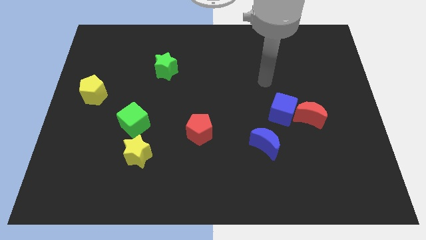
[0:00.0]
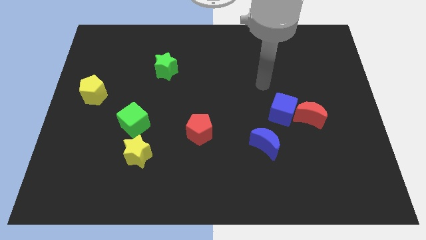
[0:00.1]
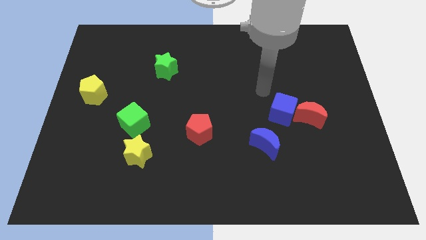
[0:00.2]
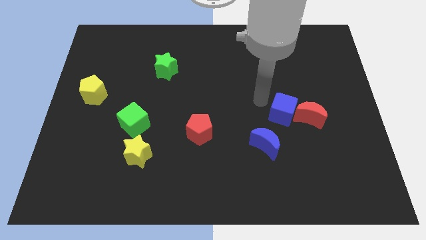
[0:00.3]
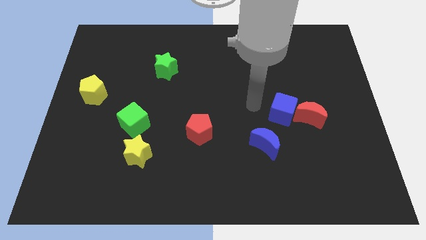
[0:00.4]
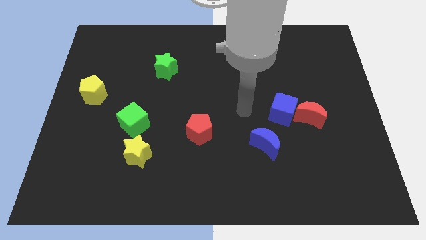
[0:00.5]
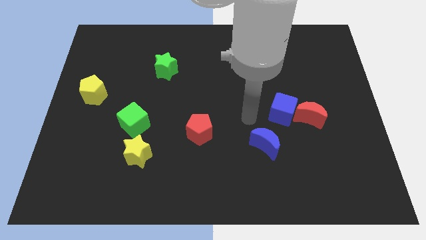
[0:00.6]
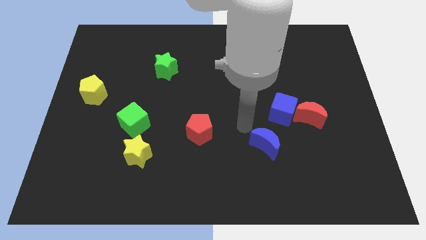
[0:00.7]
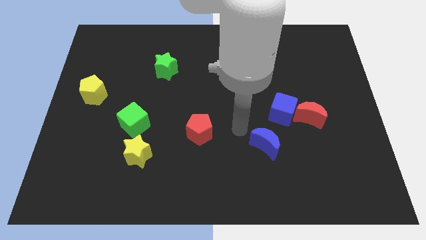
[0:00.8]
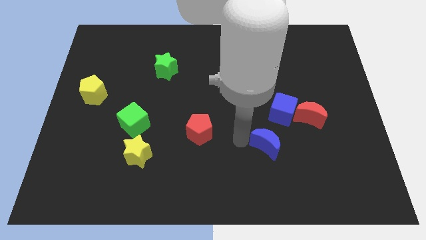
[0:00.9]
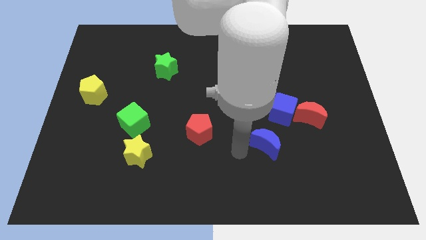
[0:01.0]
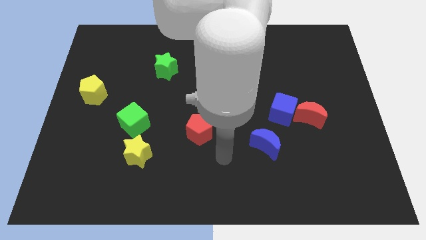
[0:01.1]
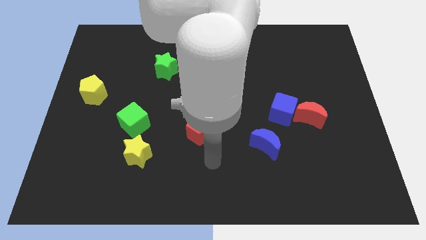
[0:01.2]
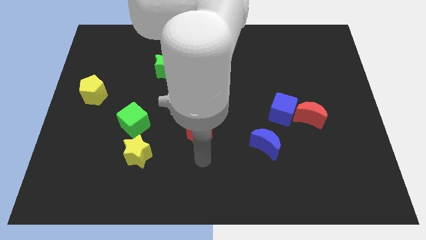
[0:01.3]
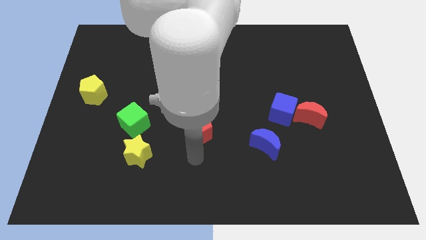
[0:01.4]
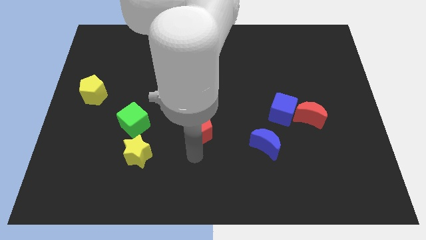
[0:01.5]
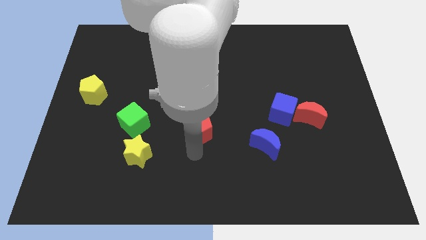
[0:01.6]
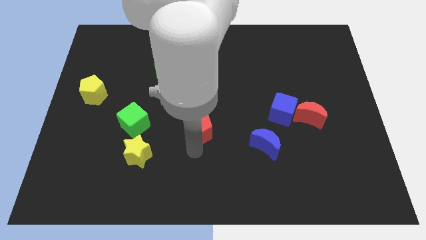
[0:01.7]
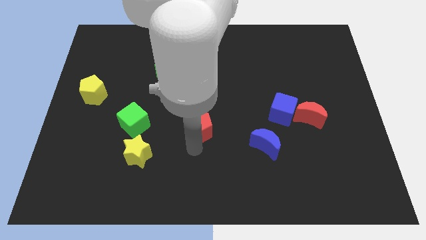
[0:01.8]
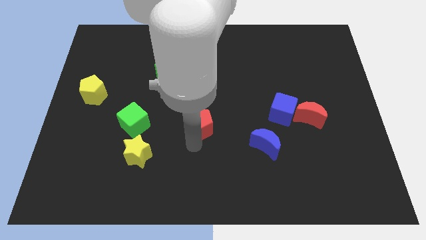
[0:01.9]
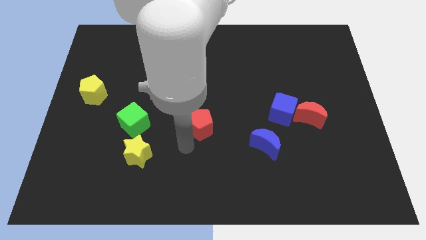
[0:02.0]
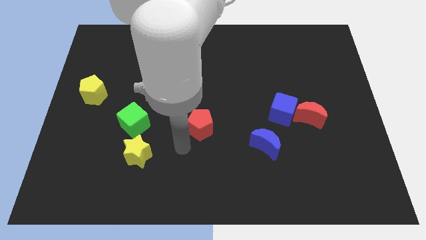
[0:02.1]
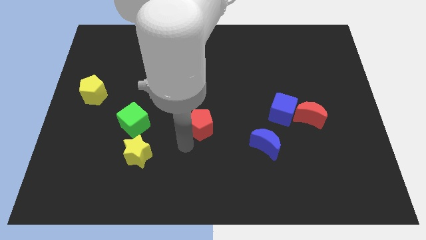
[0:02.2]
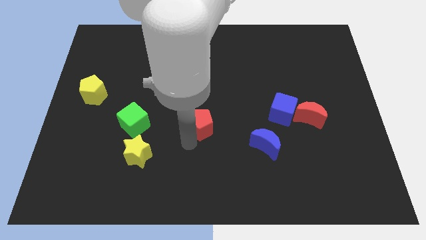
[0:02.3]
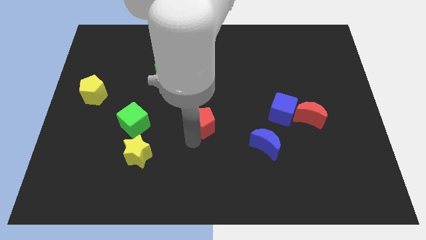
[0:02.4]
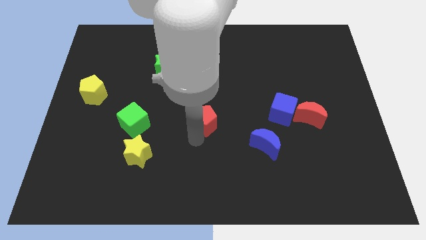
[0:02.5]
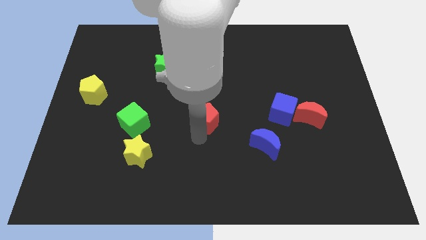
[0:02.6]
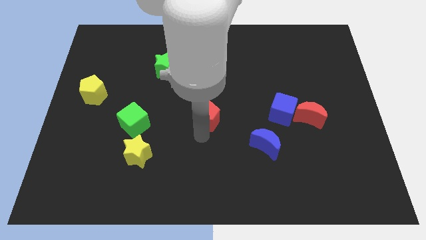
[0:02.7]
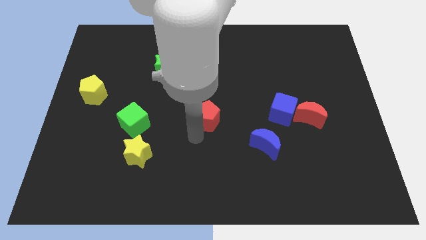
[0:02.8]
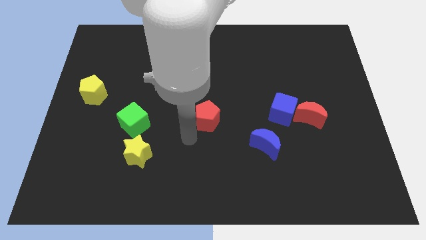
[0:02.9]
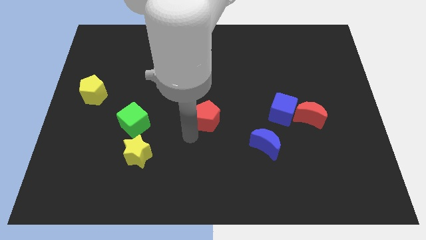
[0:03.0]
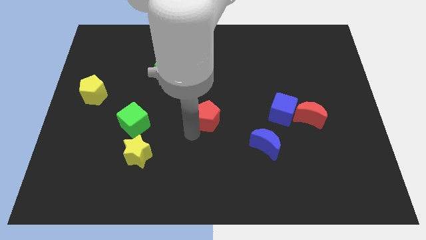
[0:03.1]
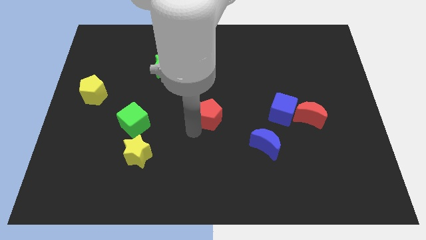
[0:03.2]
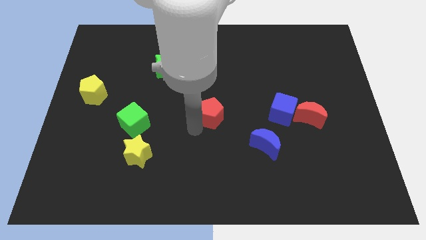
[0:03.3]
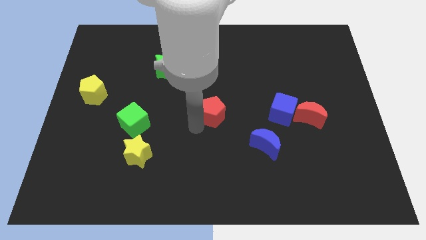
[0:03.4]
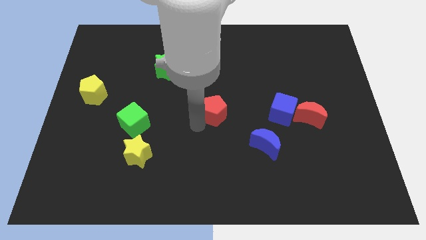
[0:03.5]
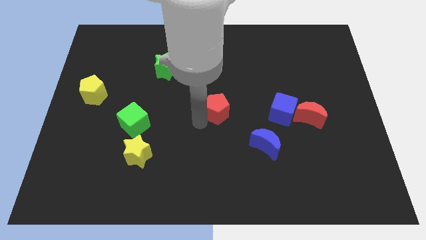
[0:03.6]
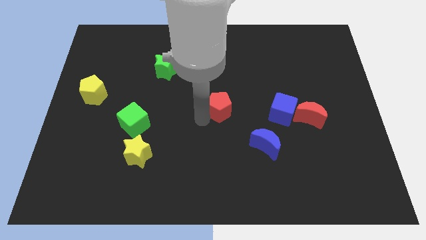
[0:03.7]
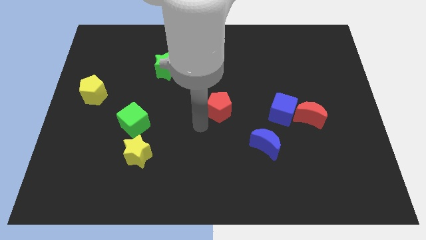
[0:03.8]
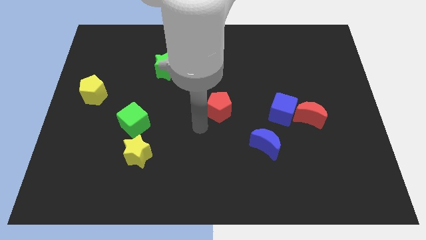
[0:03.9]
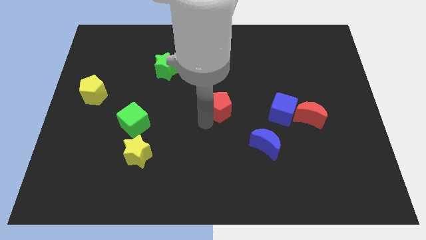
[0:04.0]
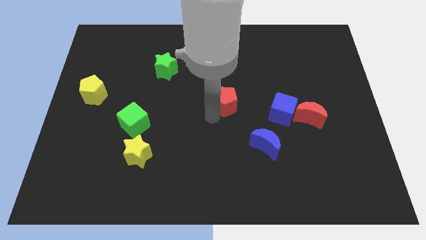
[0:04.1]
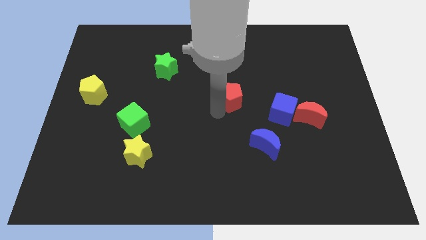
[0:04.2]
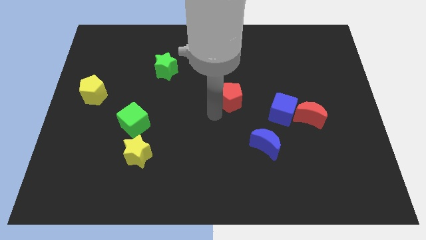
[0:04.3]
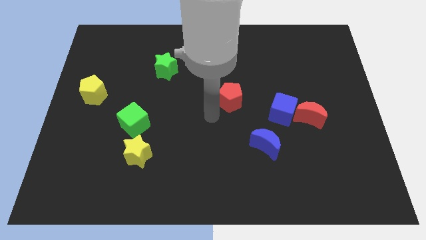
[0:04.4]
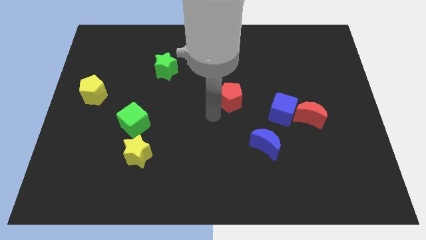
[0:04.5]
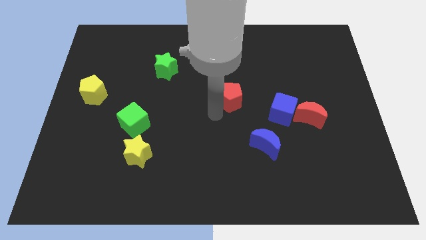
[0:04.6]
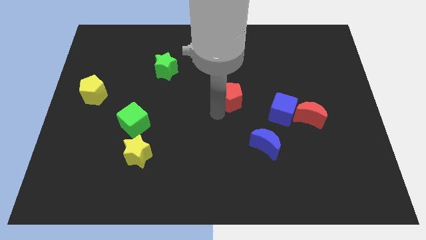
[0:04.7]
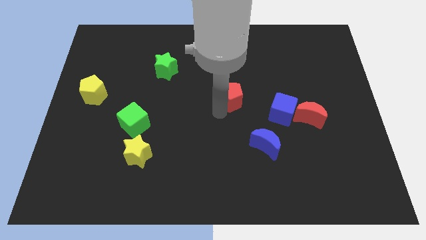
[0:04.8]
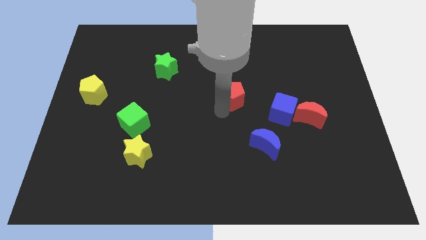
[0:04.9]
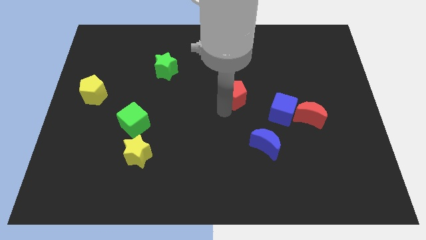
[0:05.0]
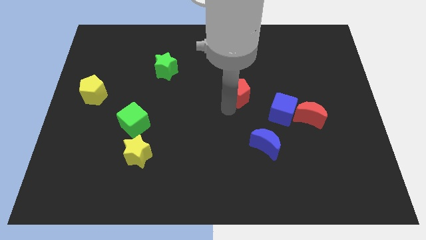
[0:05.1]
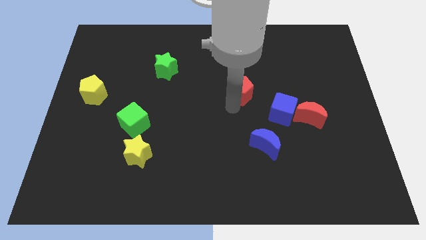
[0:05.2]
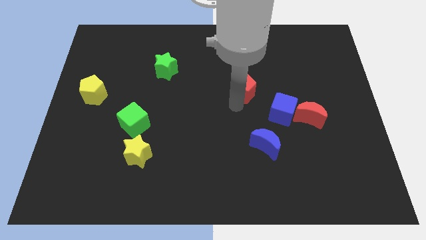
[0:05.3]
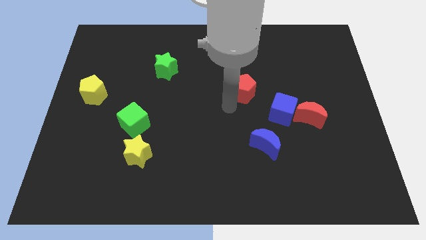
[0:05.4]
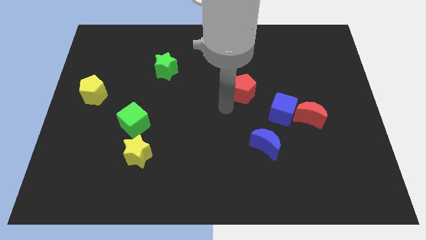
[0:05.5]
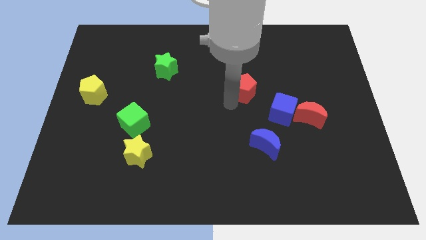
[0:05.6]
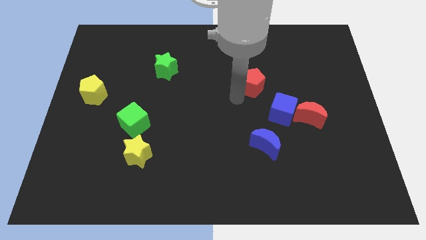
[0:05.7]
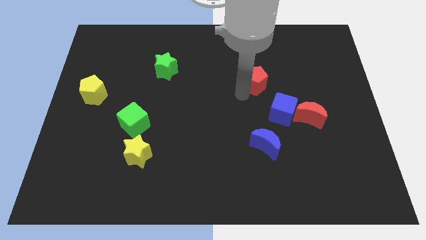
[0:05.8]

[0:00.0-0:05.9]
move the red pentagon up and right diagonally

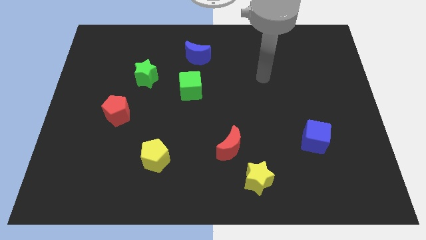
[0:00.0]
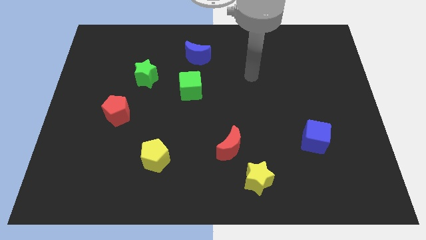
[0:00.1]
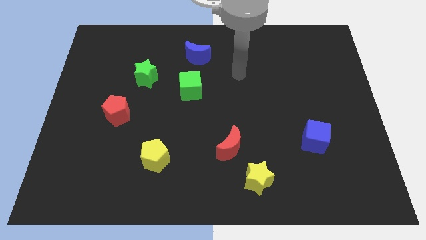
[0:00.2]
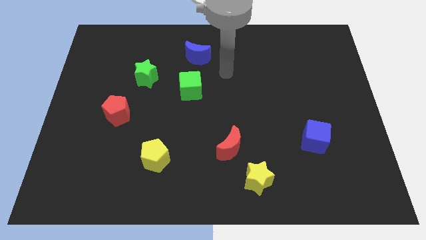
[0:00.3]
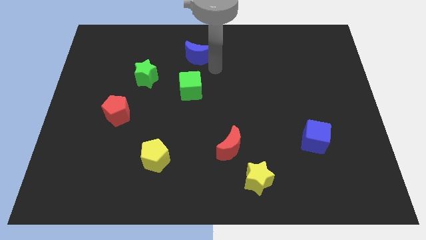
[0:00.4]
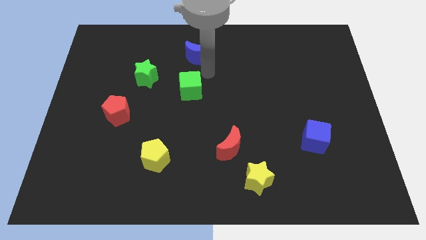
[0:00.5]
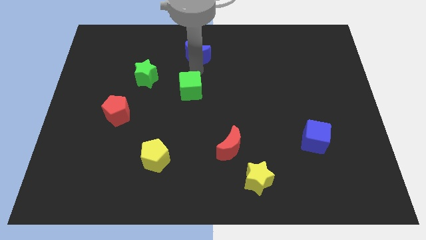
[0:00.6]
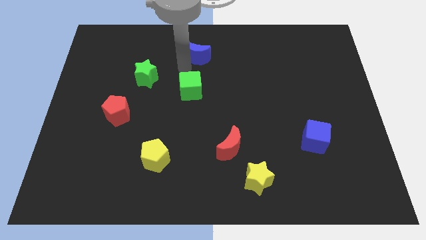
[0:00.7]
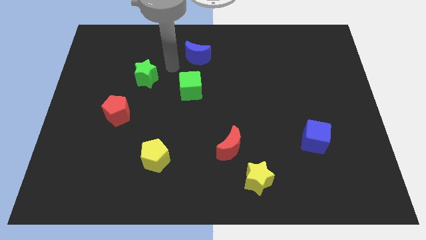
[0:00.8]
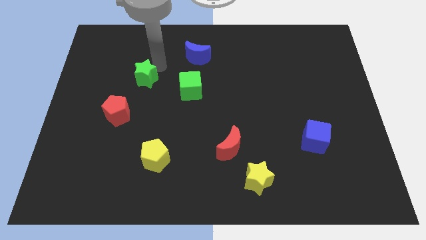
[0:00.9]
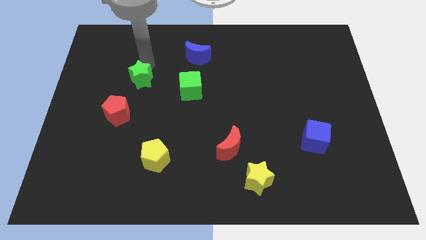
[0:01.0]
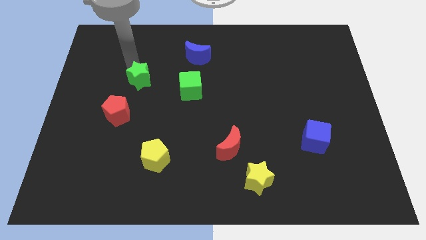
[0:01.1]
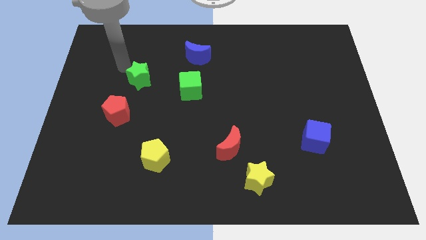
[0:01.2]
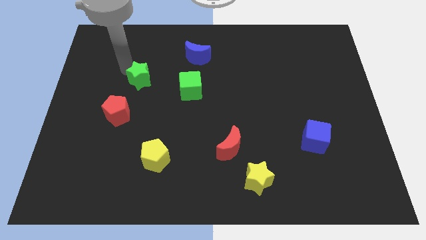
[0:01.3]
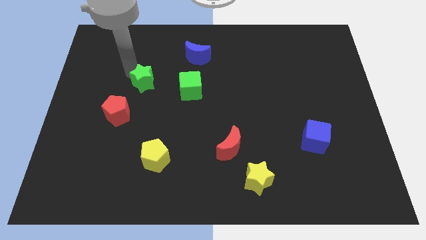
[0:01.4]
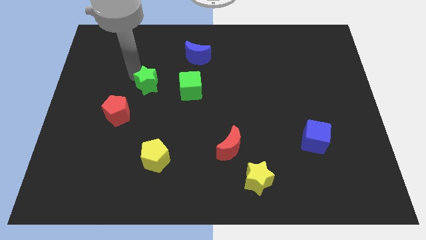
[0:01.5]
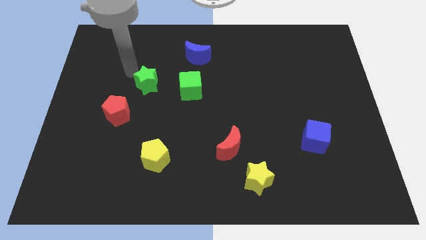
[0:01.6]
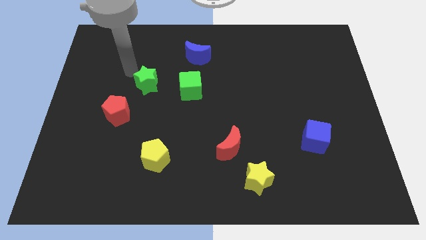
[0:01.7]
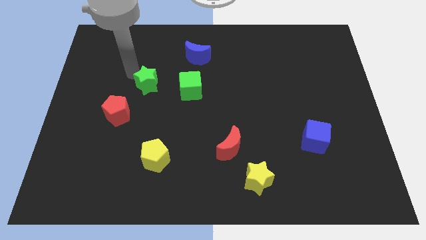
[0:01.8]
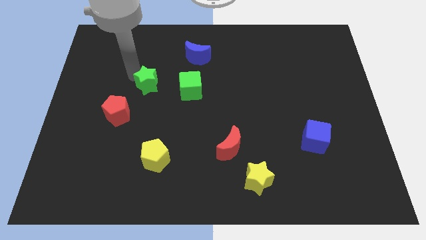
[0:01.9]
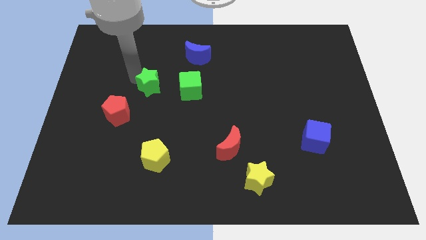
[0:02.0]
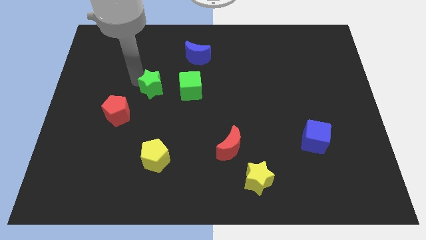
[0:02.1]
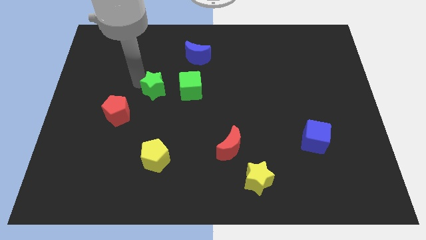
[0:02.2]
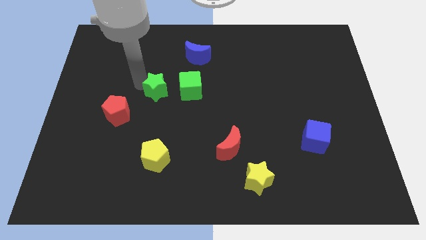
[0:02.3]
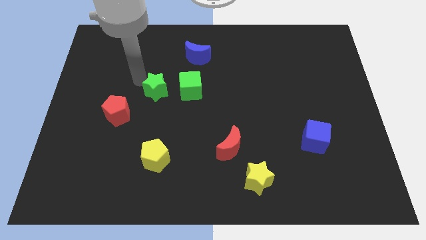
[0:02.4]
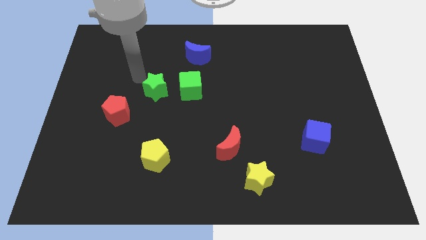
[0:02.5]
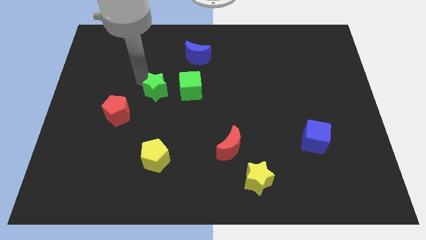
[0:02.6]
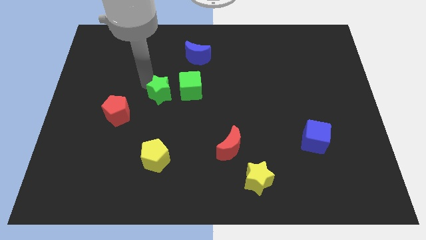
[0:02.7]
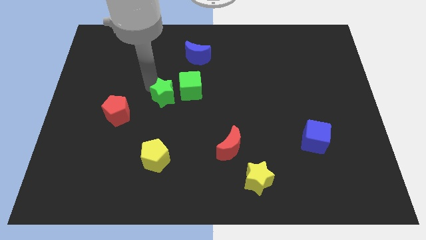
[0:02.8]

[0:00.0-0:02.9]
move the green star somewhat down and then to the right
